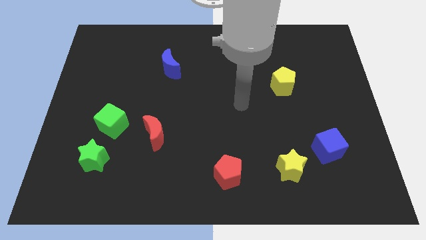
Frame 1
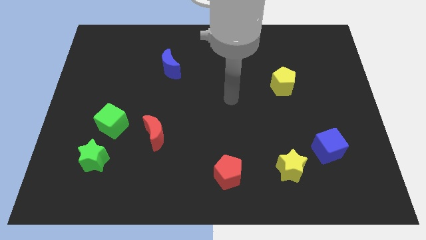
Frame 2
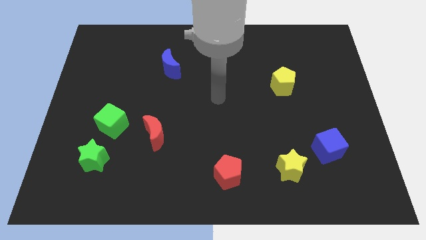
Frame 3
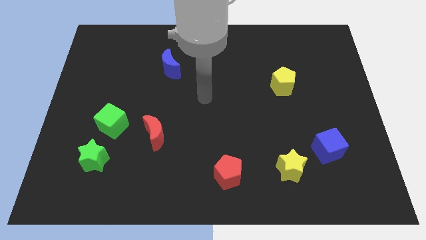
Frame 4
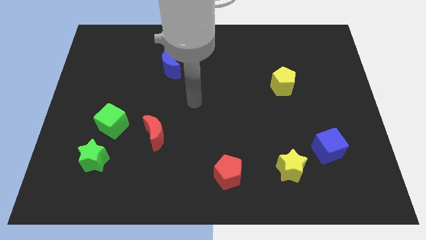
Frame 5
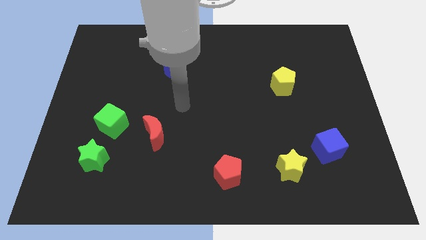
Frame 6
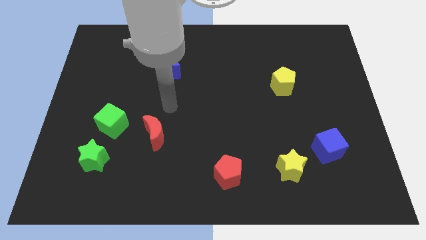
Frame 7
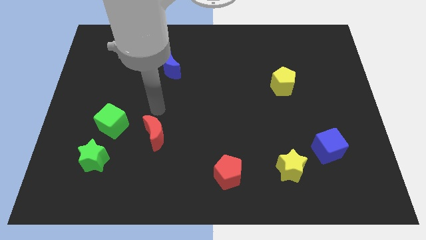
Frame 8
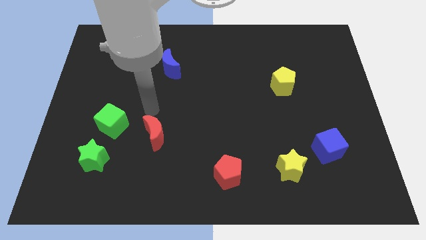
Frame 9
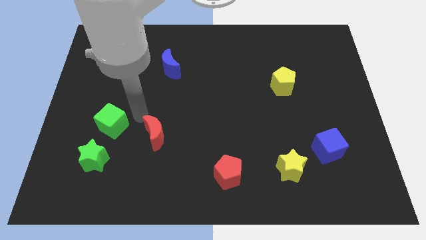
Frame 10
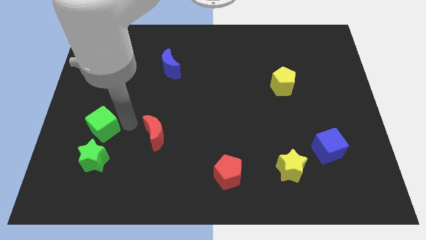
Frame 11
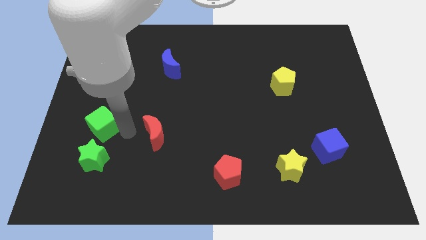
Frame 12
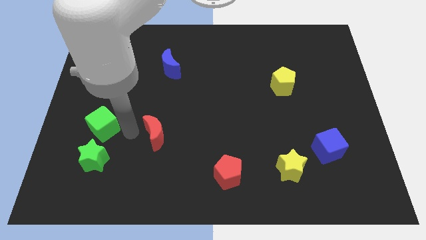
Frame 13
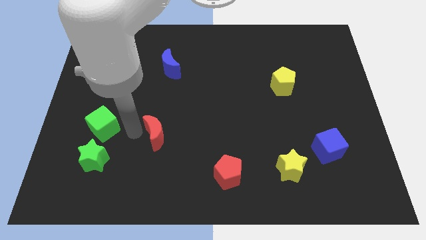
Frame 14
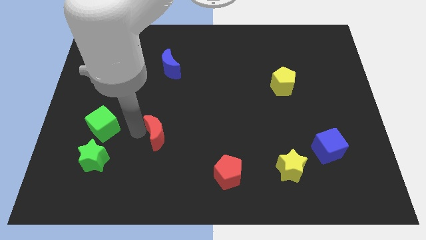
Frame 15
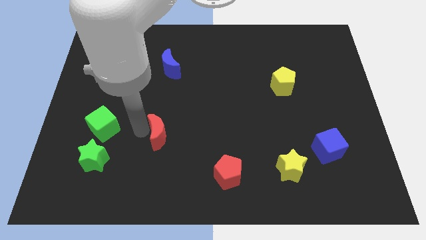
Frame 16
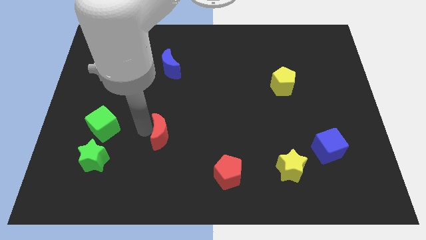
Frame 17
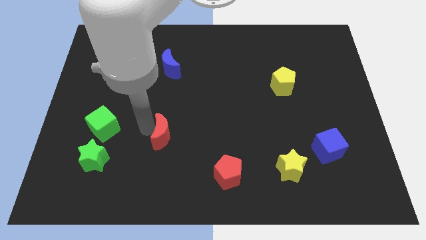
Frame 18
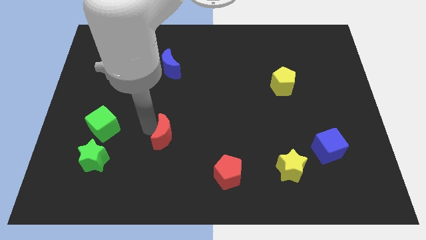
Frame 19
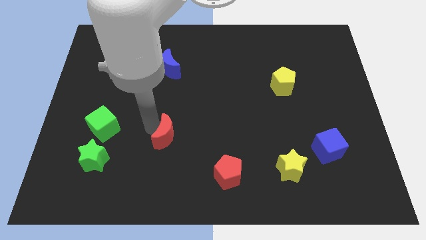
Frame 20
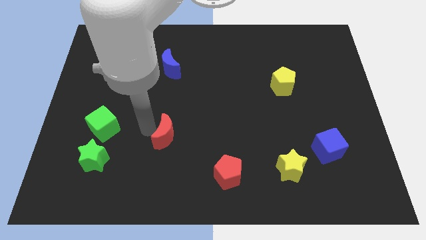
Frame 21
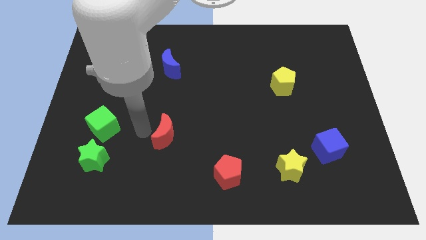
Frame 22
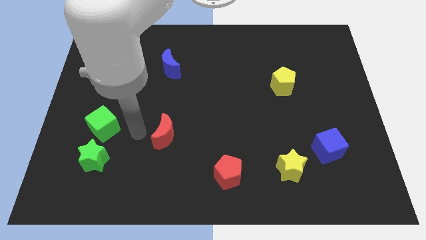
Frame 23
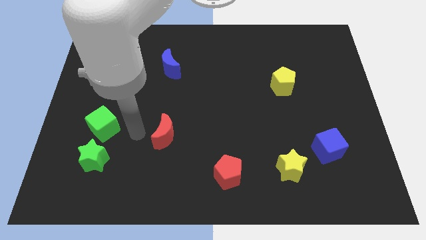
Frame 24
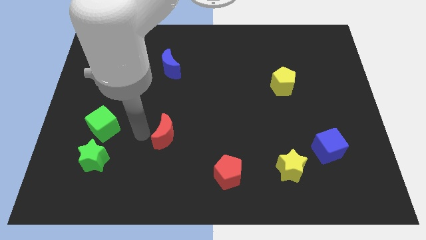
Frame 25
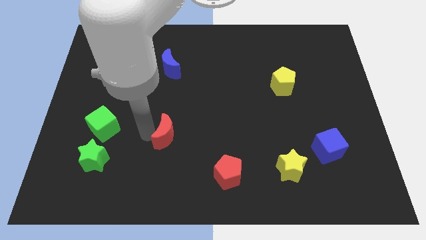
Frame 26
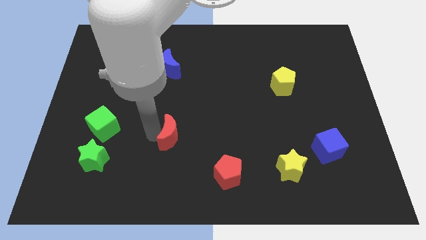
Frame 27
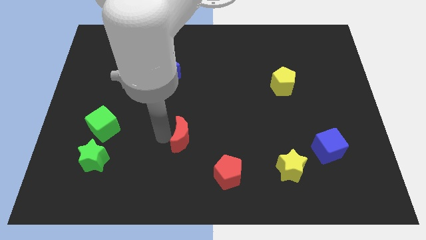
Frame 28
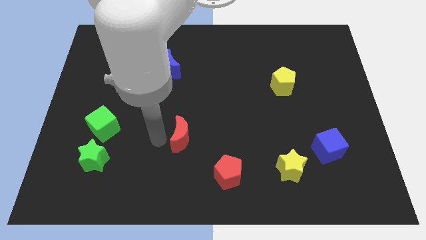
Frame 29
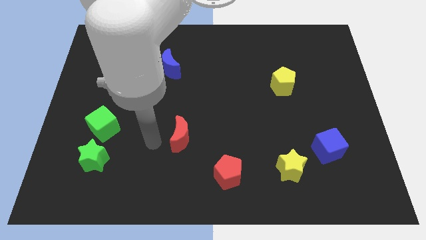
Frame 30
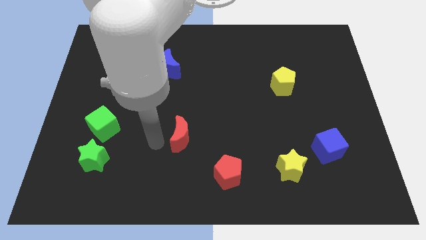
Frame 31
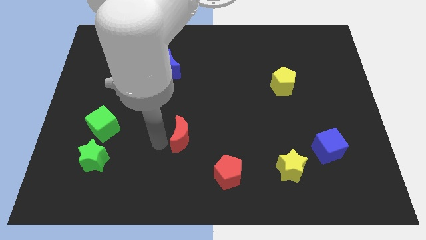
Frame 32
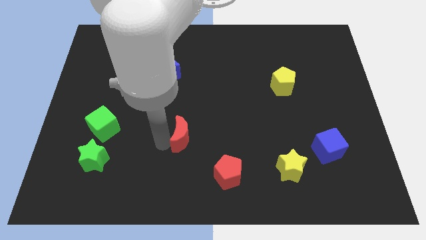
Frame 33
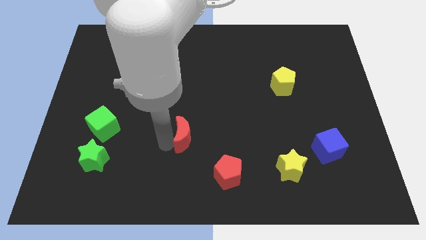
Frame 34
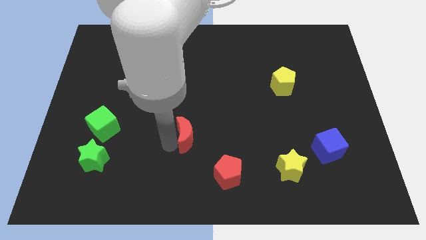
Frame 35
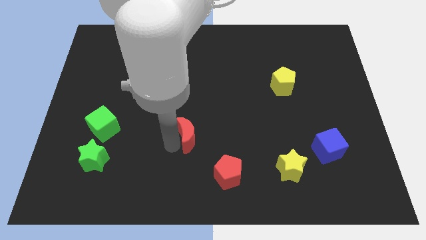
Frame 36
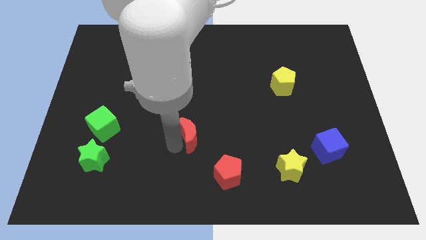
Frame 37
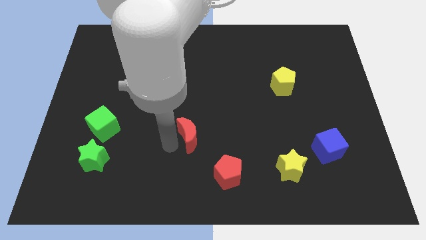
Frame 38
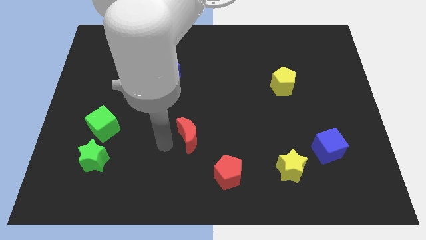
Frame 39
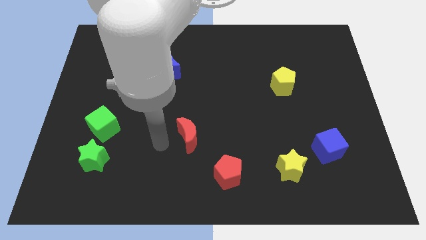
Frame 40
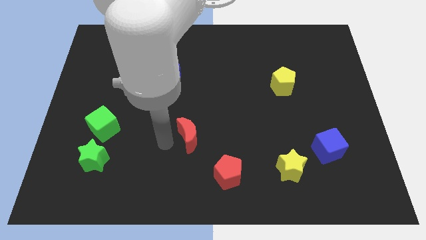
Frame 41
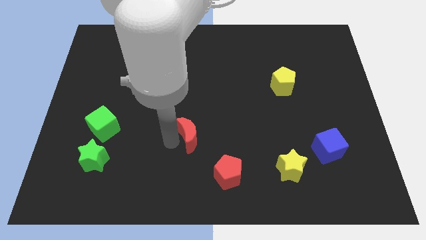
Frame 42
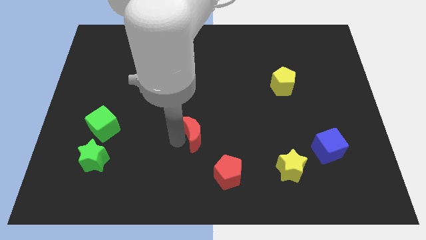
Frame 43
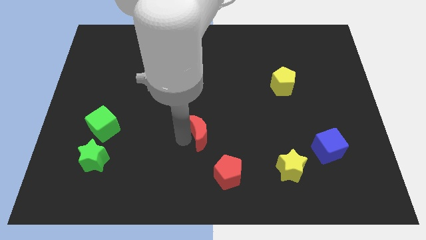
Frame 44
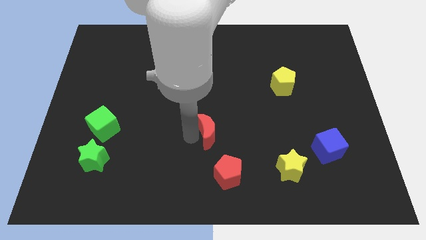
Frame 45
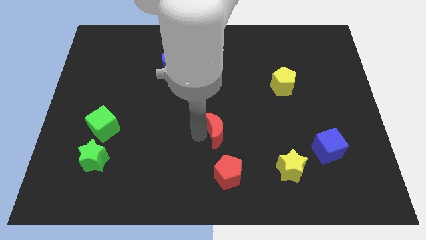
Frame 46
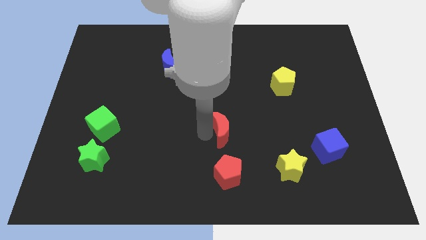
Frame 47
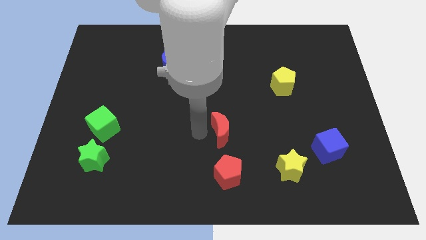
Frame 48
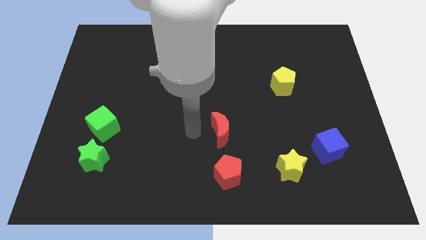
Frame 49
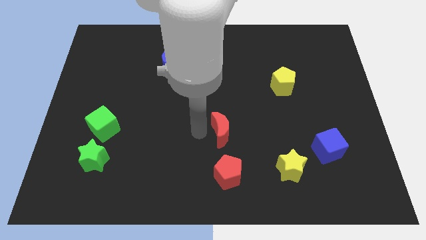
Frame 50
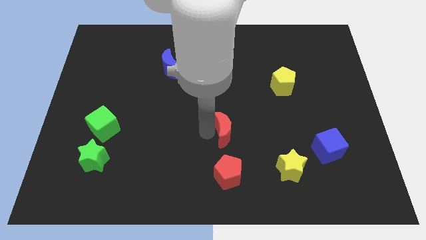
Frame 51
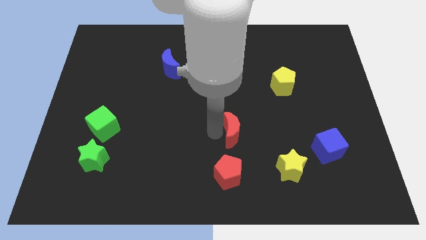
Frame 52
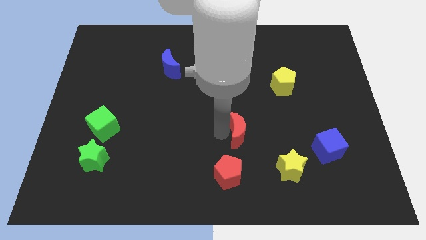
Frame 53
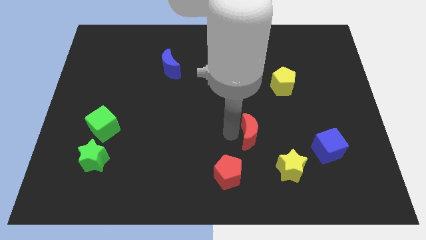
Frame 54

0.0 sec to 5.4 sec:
push the red moon right

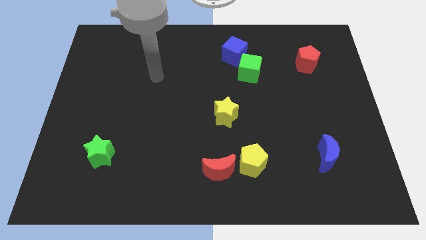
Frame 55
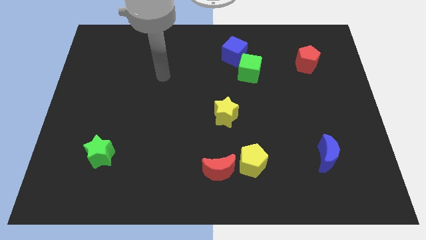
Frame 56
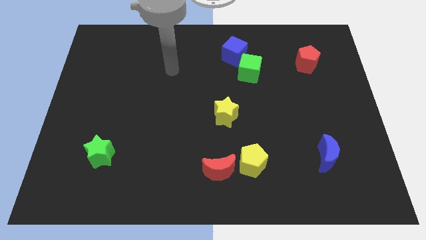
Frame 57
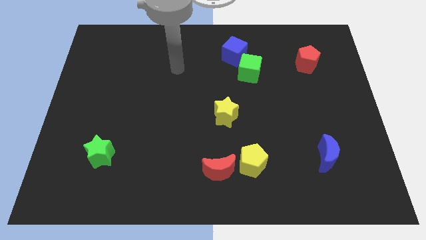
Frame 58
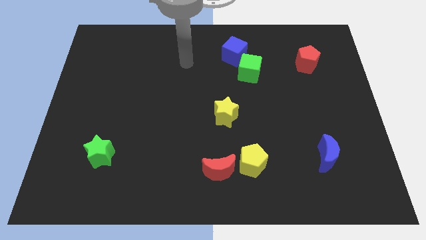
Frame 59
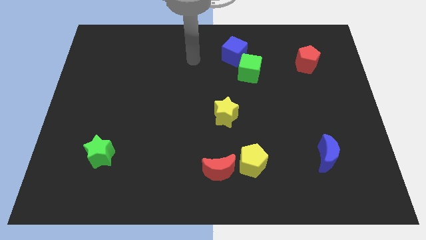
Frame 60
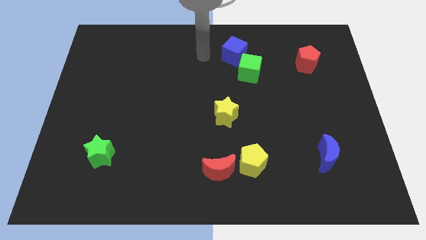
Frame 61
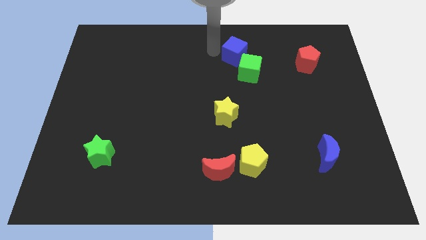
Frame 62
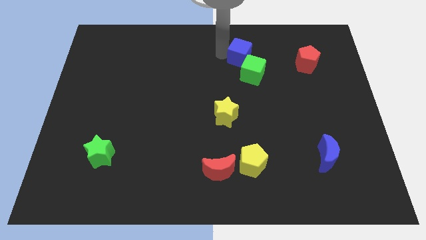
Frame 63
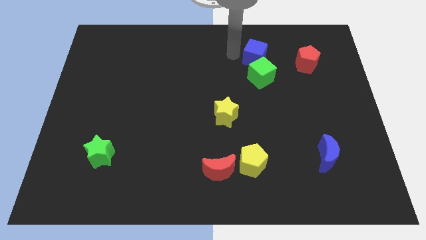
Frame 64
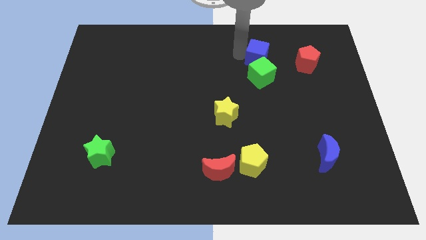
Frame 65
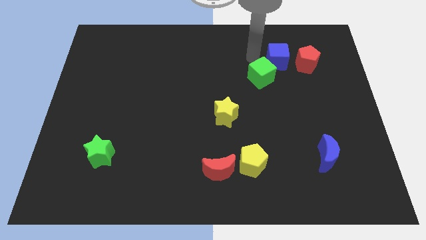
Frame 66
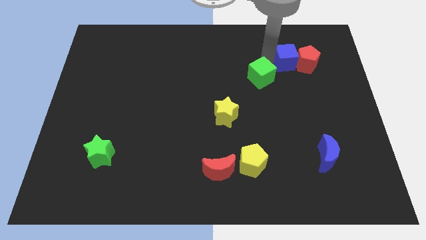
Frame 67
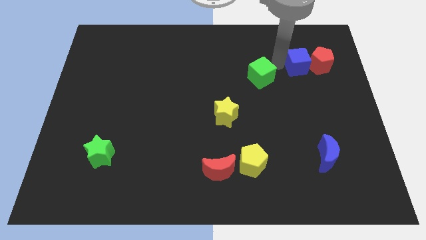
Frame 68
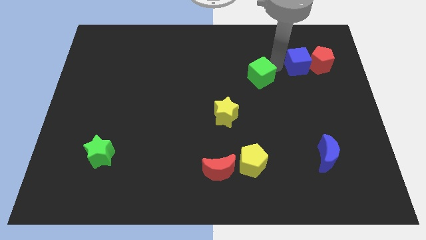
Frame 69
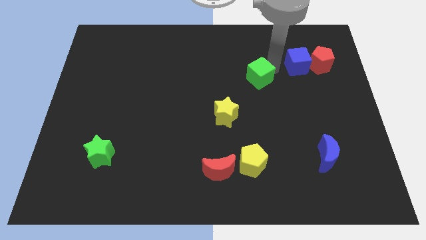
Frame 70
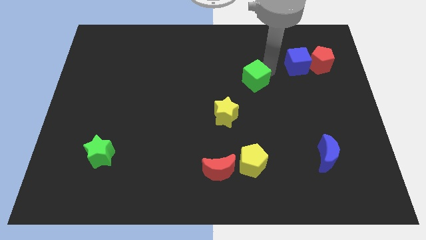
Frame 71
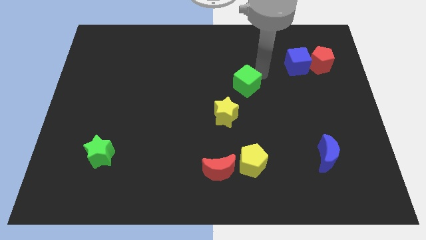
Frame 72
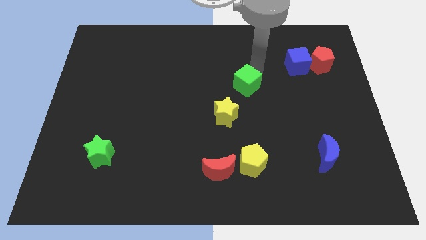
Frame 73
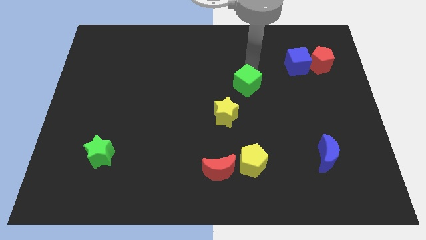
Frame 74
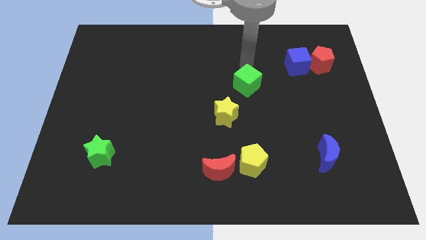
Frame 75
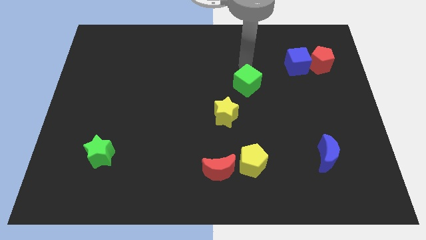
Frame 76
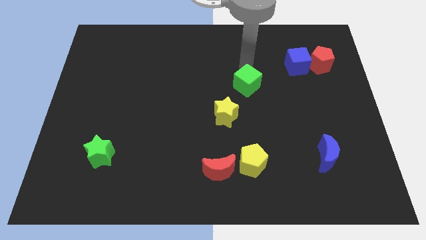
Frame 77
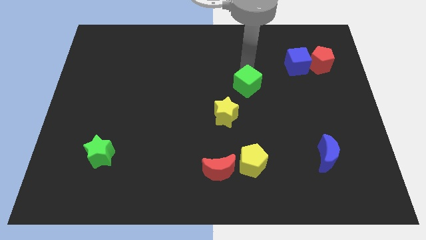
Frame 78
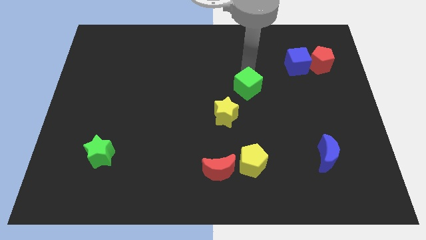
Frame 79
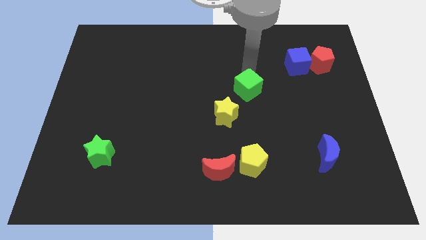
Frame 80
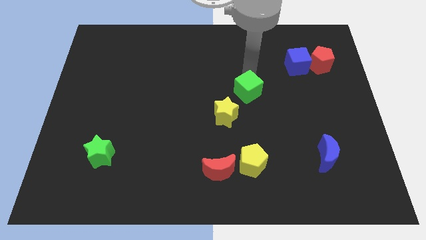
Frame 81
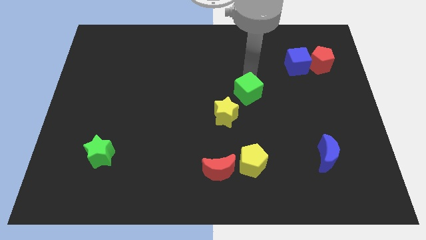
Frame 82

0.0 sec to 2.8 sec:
slightly push the green cube down
